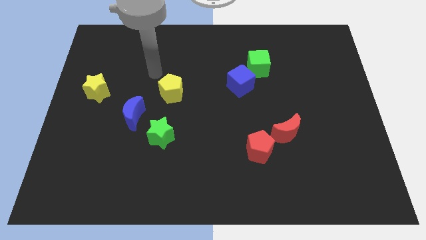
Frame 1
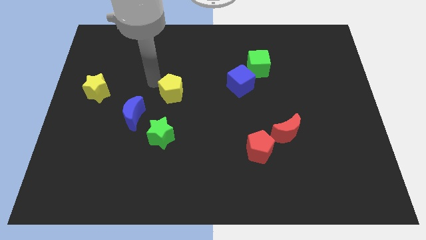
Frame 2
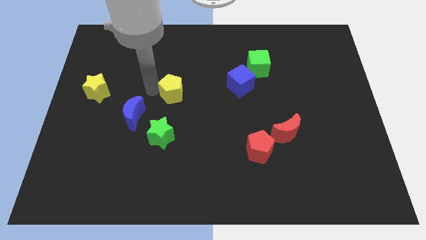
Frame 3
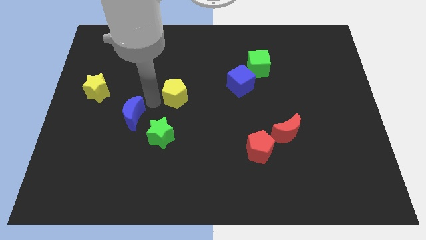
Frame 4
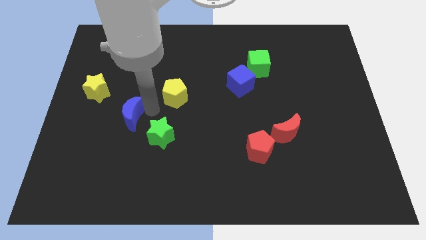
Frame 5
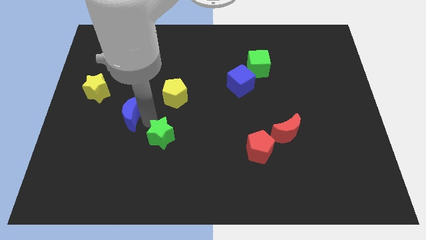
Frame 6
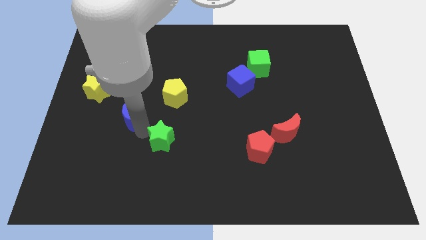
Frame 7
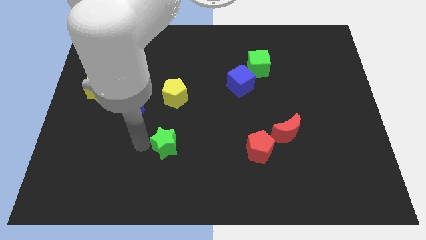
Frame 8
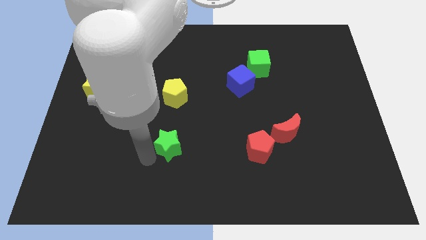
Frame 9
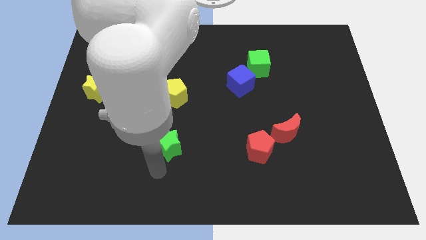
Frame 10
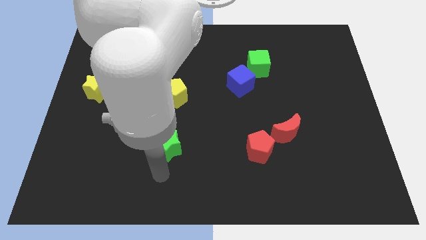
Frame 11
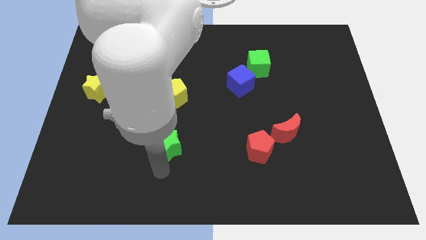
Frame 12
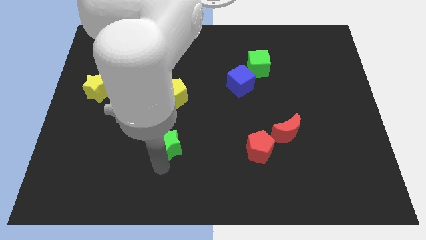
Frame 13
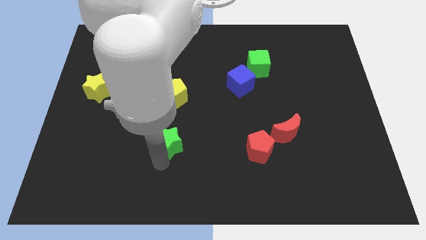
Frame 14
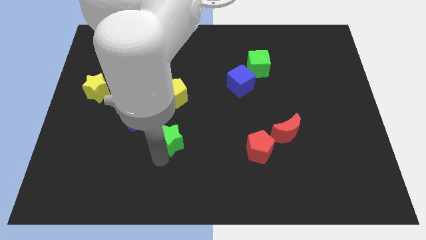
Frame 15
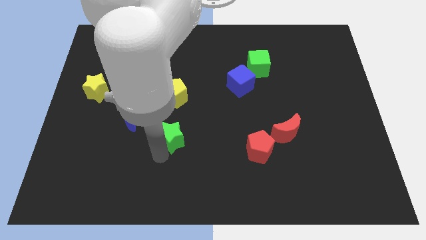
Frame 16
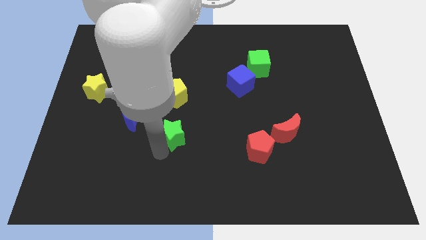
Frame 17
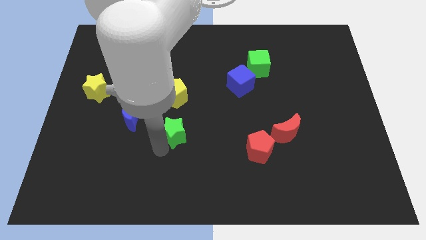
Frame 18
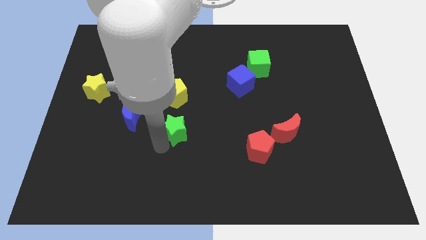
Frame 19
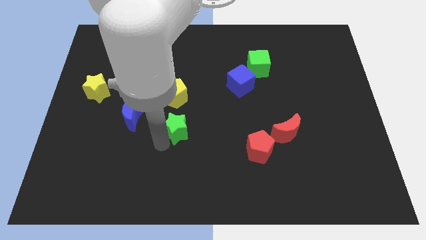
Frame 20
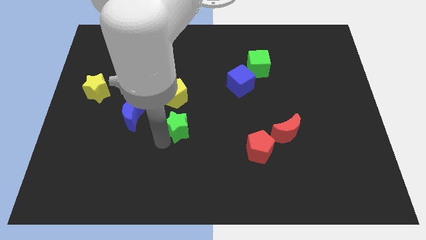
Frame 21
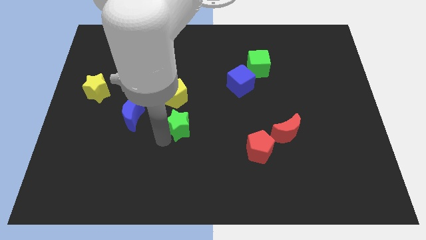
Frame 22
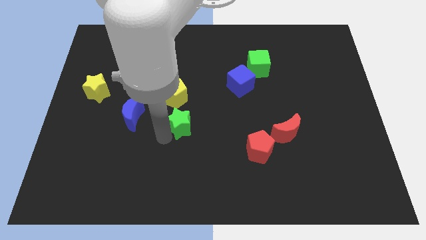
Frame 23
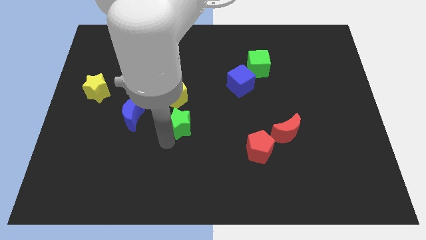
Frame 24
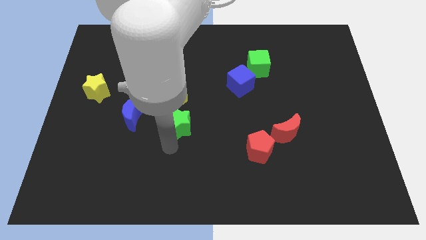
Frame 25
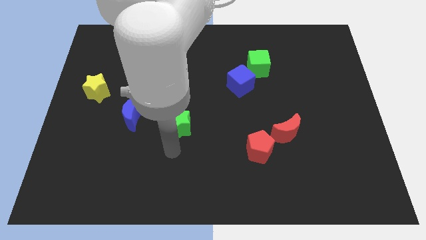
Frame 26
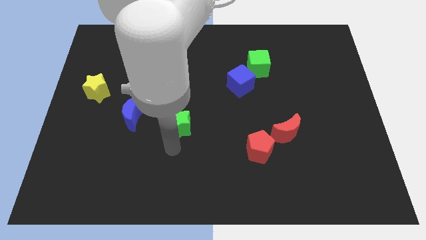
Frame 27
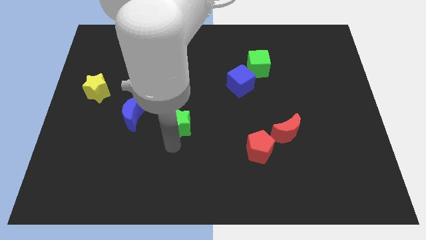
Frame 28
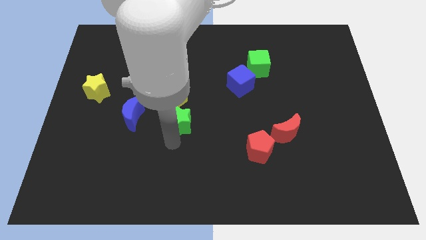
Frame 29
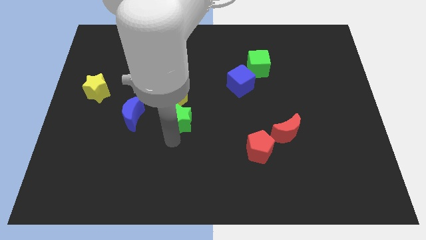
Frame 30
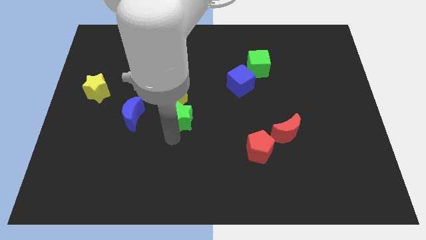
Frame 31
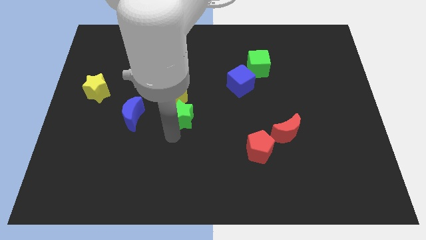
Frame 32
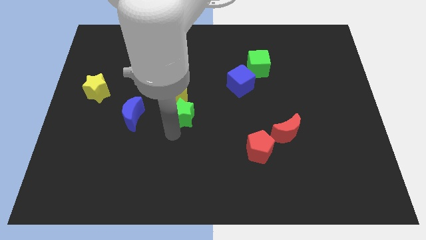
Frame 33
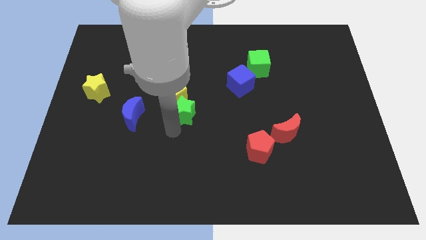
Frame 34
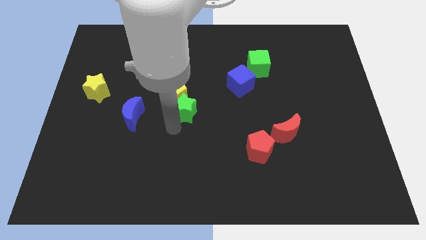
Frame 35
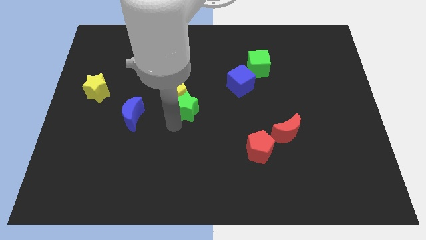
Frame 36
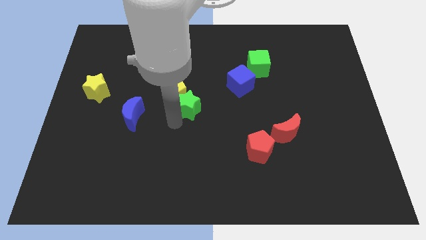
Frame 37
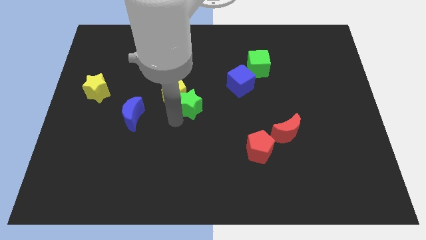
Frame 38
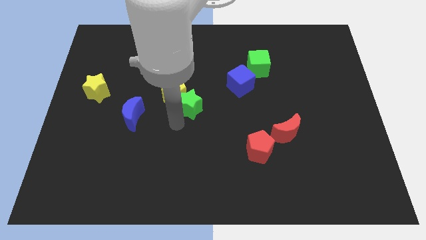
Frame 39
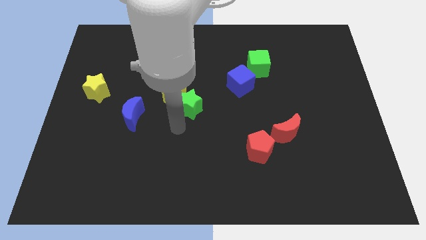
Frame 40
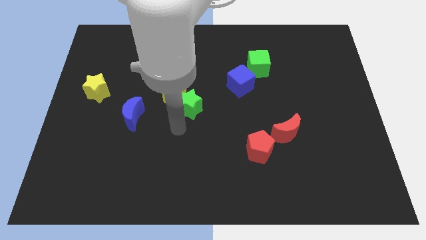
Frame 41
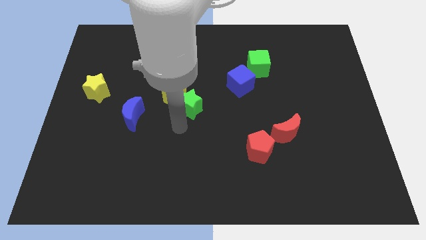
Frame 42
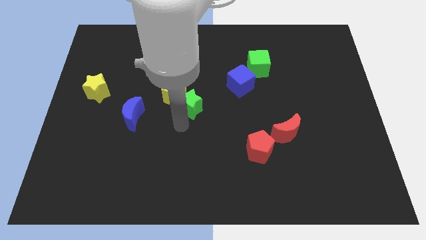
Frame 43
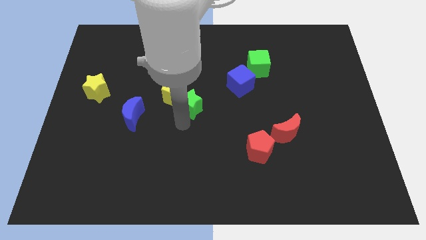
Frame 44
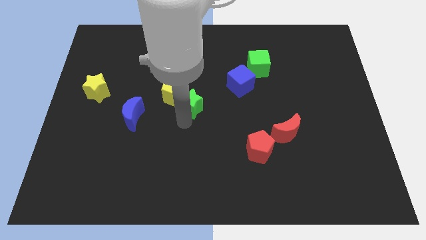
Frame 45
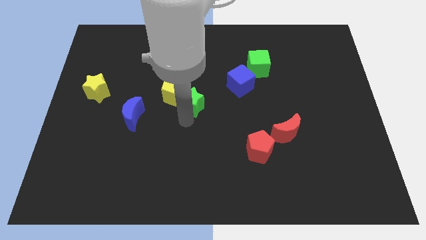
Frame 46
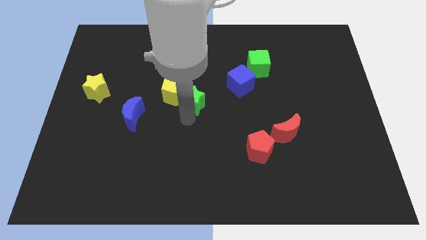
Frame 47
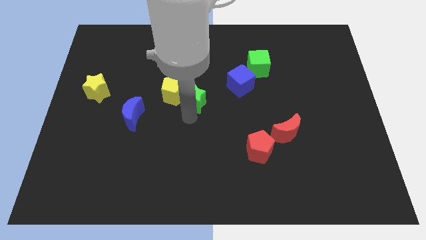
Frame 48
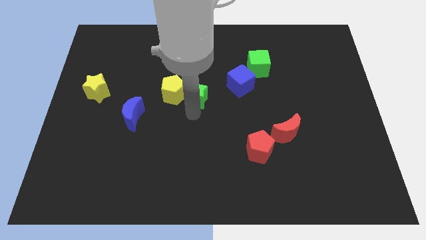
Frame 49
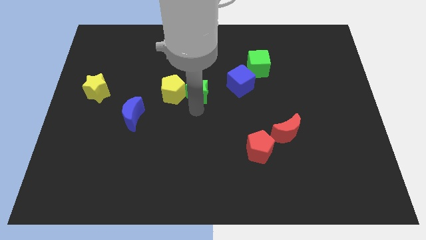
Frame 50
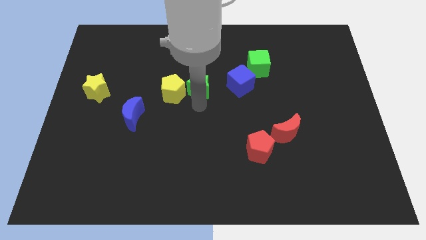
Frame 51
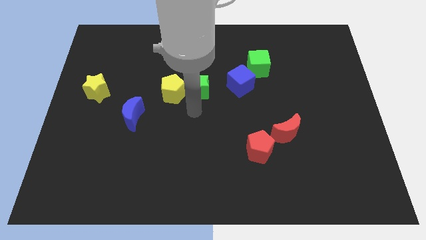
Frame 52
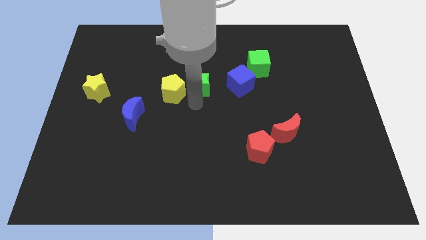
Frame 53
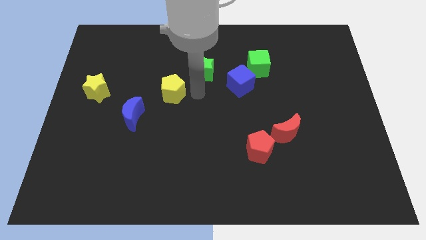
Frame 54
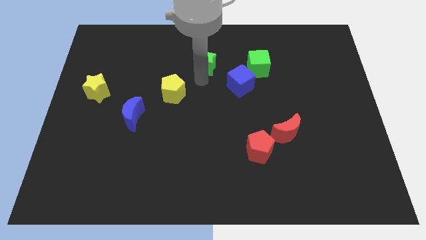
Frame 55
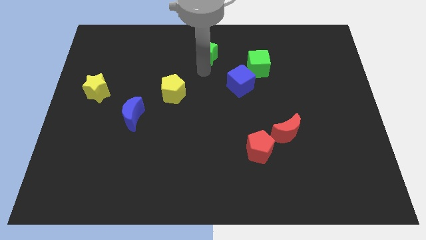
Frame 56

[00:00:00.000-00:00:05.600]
push the green star to the top

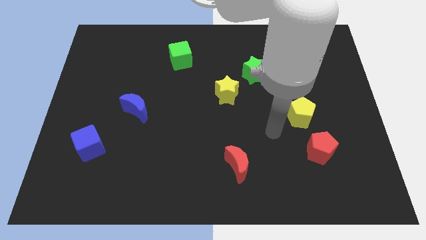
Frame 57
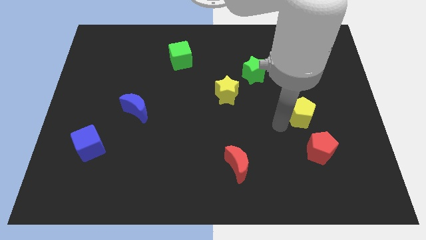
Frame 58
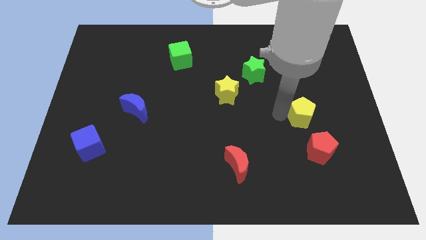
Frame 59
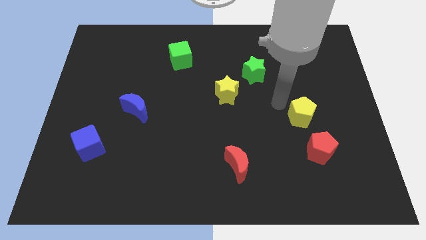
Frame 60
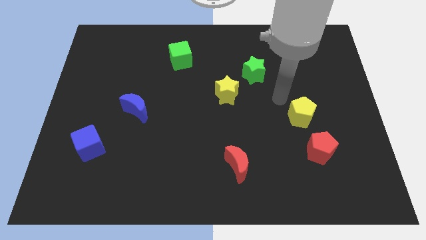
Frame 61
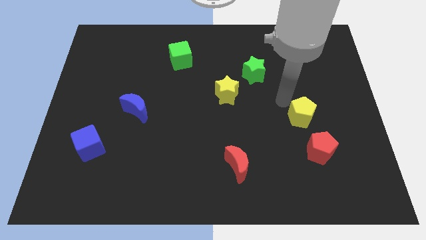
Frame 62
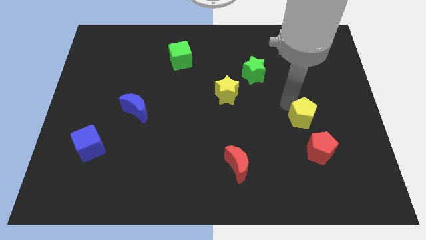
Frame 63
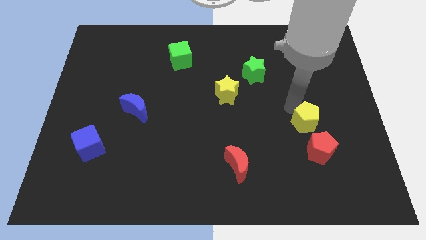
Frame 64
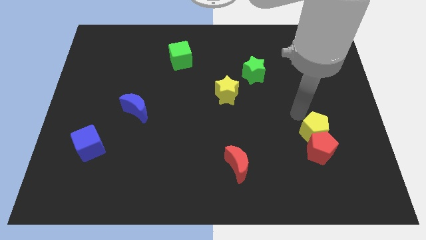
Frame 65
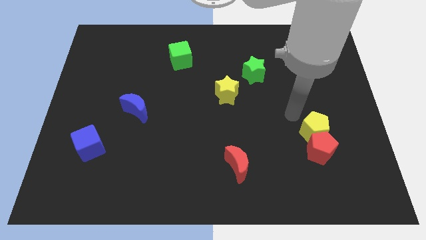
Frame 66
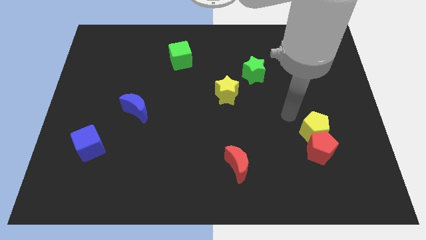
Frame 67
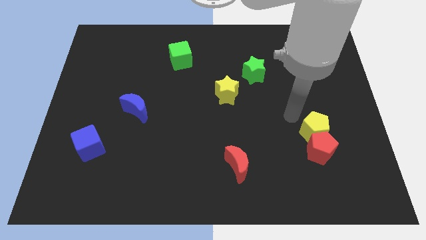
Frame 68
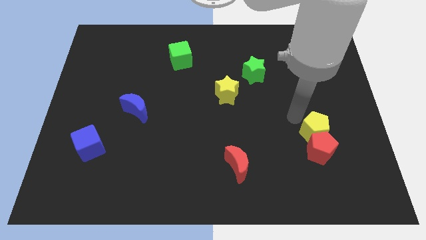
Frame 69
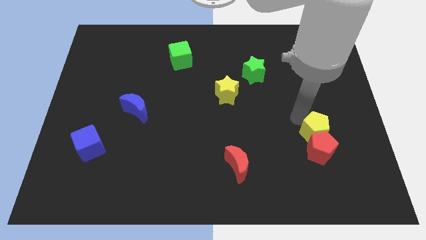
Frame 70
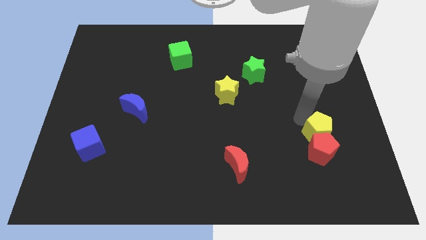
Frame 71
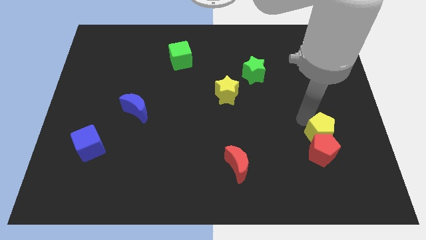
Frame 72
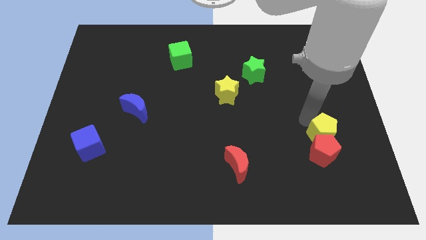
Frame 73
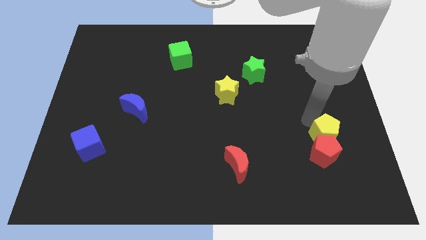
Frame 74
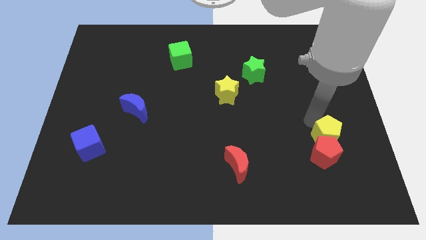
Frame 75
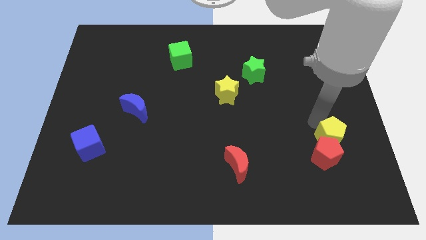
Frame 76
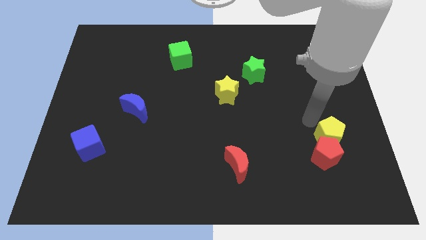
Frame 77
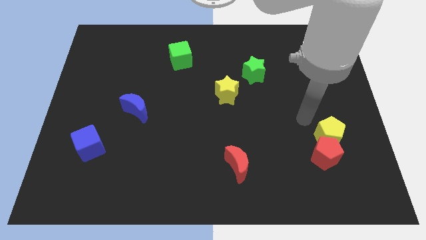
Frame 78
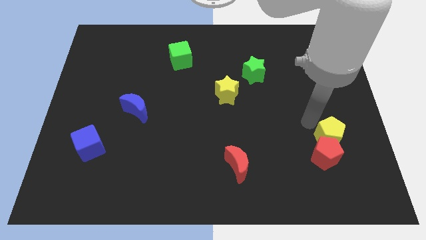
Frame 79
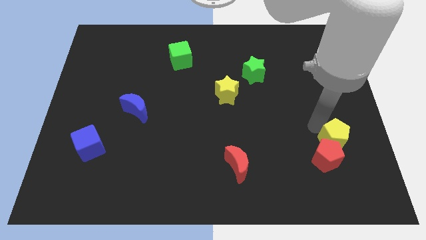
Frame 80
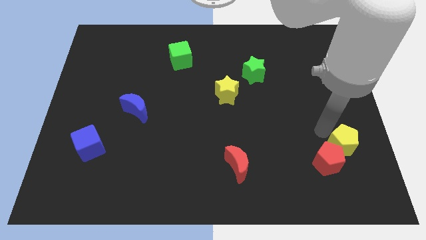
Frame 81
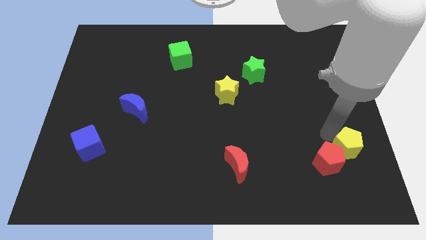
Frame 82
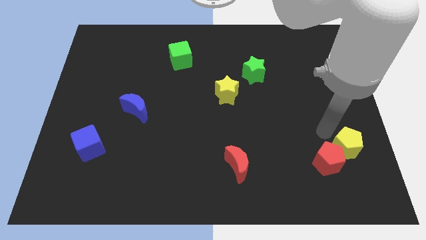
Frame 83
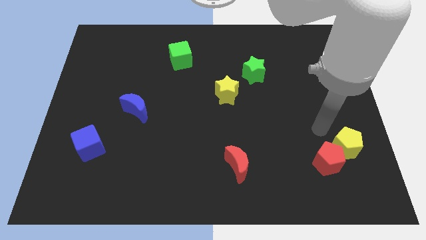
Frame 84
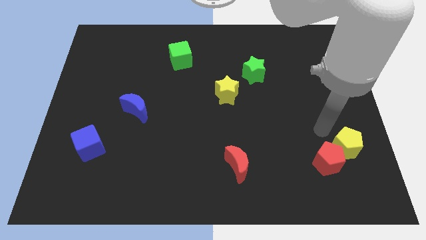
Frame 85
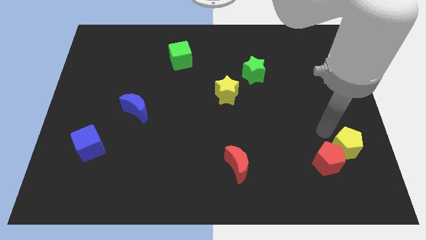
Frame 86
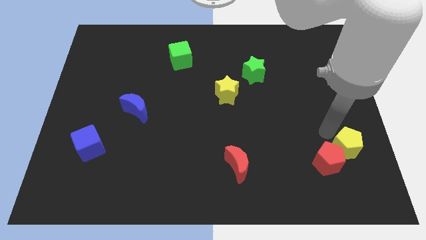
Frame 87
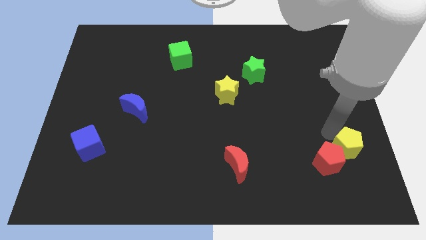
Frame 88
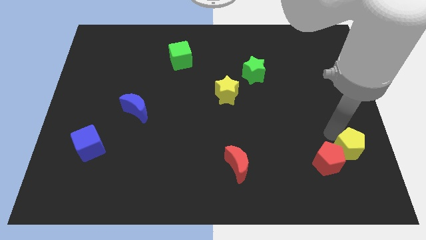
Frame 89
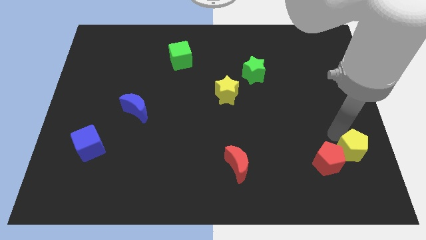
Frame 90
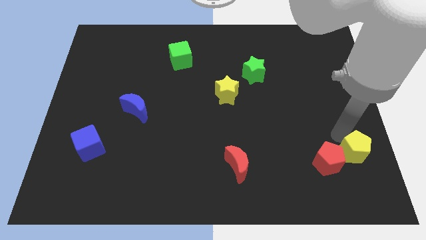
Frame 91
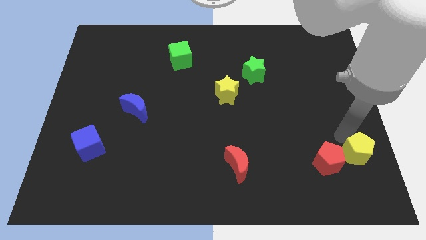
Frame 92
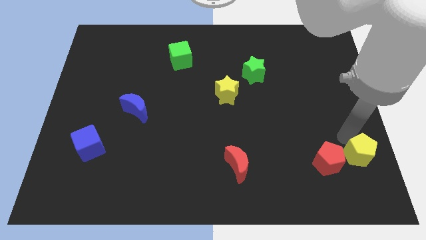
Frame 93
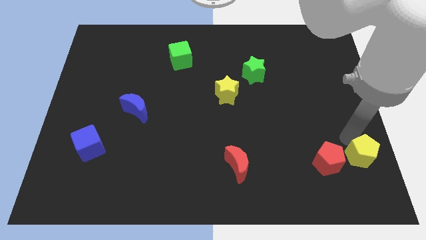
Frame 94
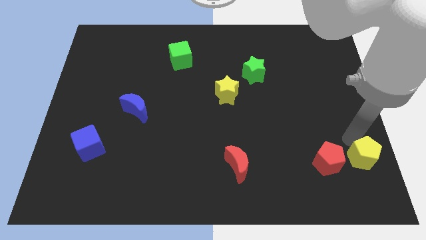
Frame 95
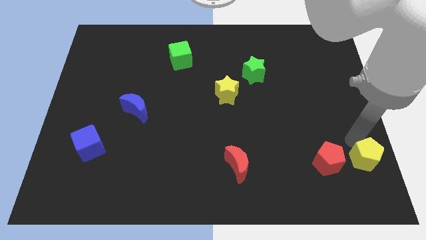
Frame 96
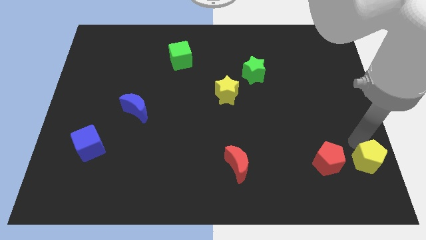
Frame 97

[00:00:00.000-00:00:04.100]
push the yellow pentagon to the bottom right
